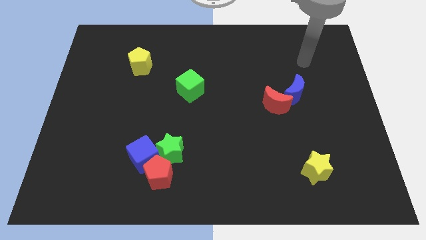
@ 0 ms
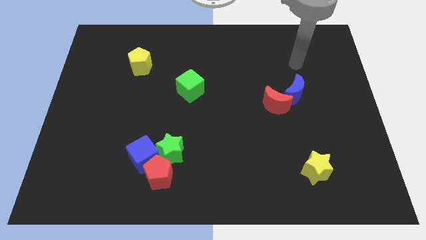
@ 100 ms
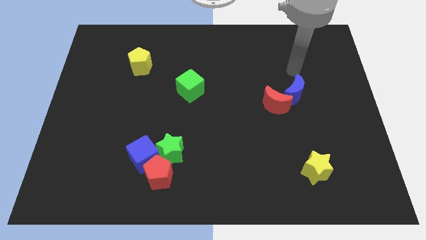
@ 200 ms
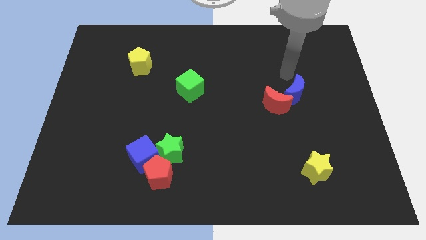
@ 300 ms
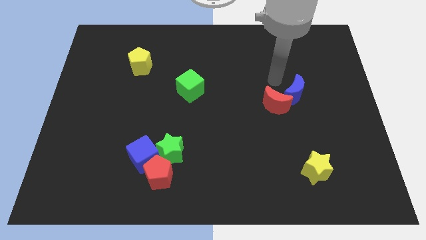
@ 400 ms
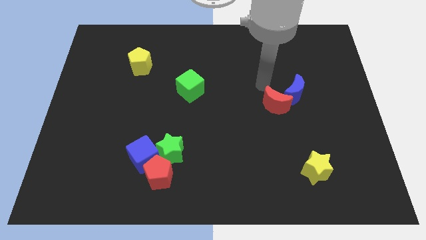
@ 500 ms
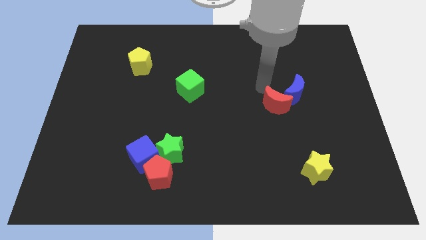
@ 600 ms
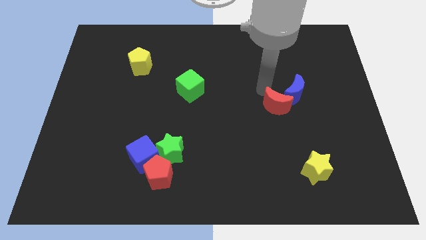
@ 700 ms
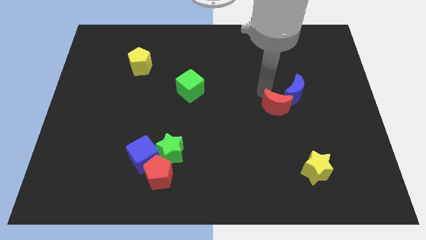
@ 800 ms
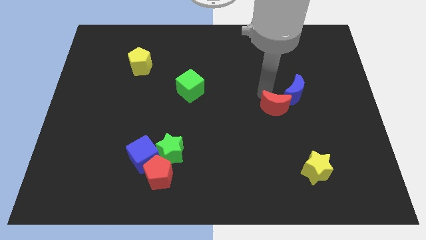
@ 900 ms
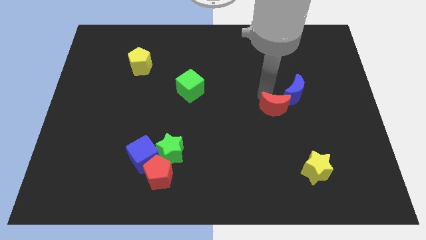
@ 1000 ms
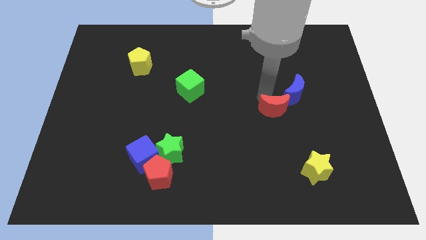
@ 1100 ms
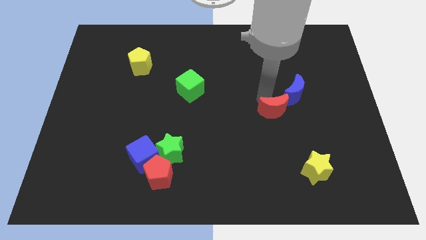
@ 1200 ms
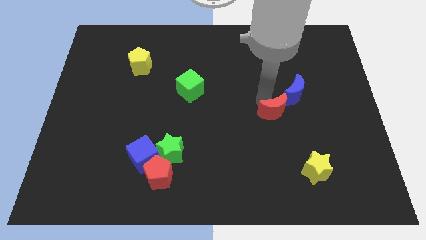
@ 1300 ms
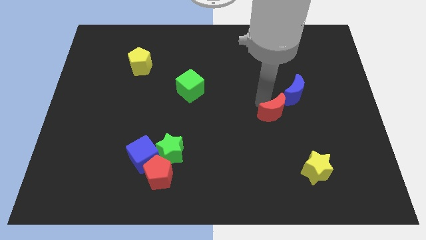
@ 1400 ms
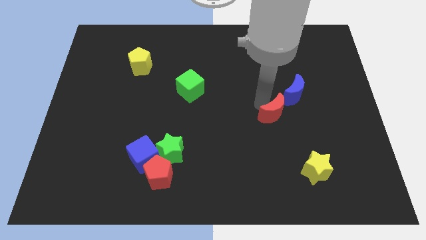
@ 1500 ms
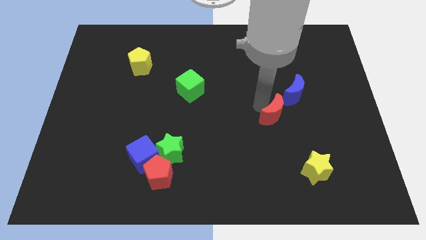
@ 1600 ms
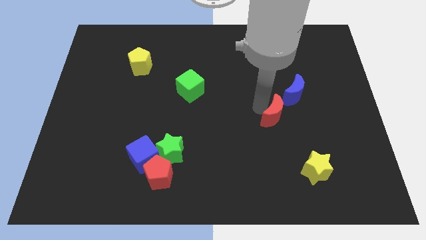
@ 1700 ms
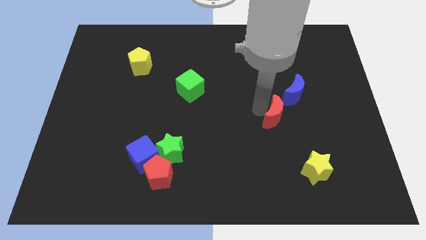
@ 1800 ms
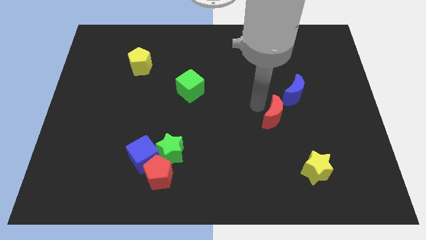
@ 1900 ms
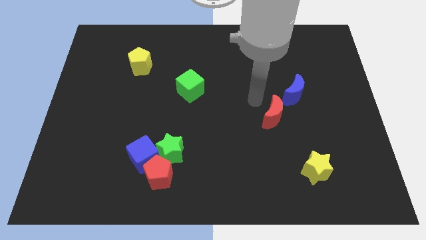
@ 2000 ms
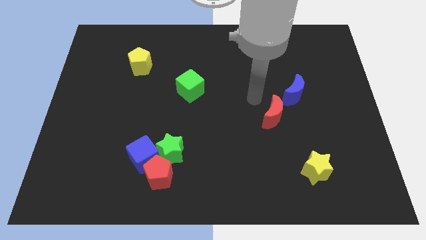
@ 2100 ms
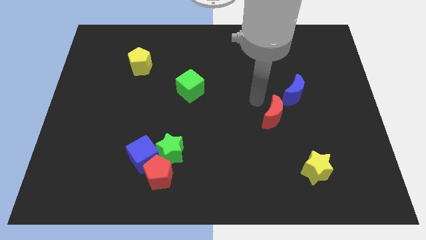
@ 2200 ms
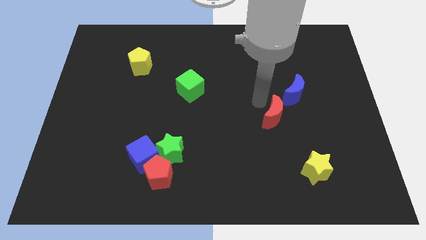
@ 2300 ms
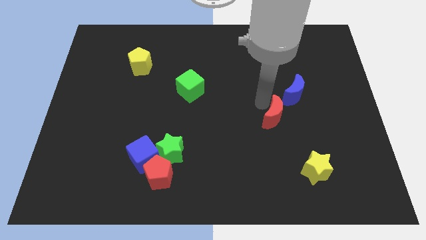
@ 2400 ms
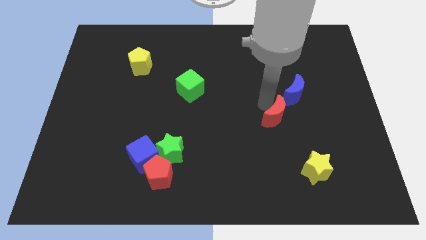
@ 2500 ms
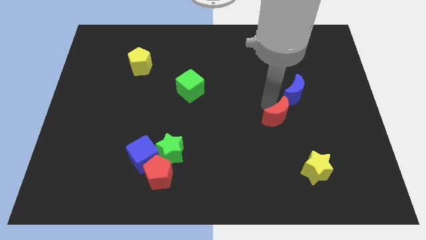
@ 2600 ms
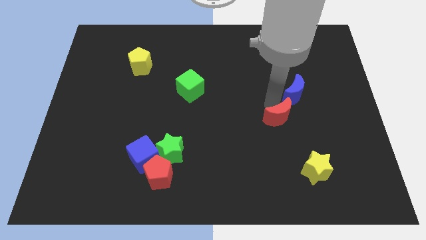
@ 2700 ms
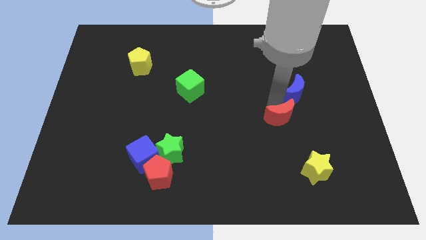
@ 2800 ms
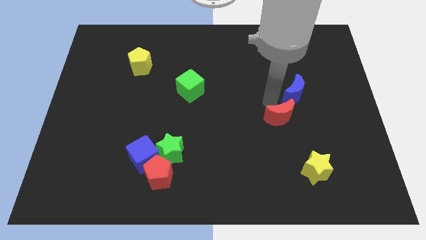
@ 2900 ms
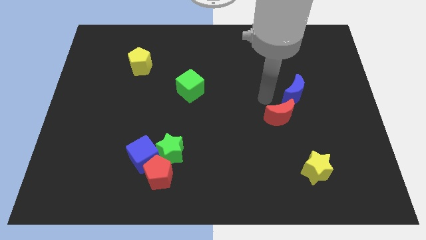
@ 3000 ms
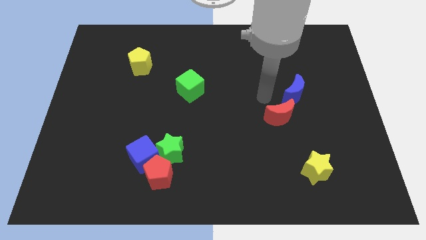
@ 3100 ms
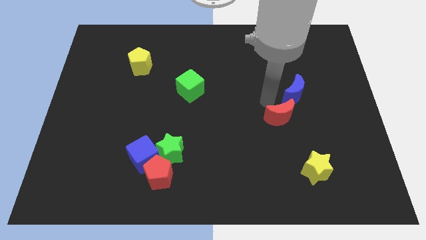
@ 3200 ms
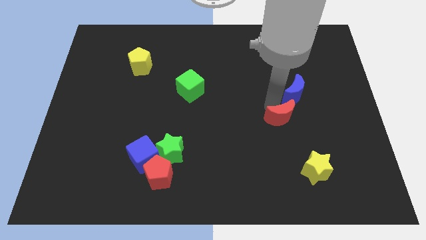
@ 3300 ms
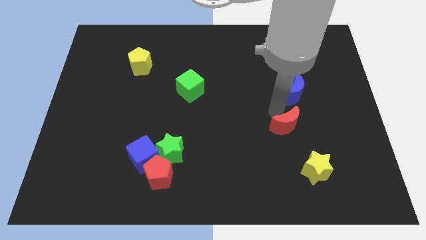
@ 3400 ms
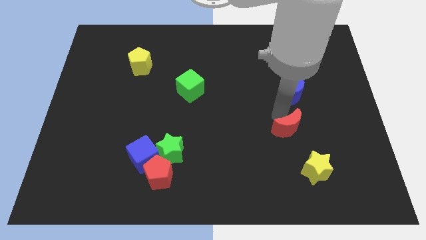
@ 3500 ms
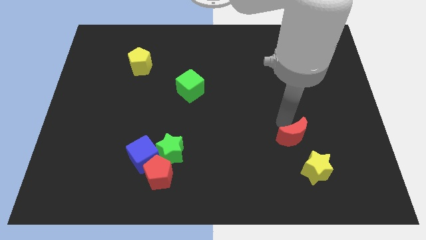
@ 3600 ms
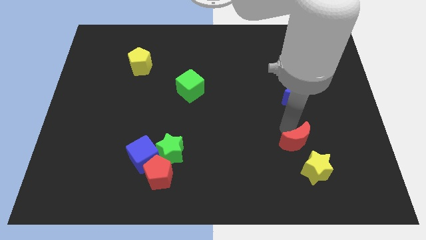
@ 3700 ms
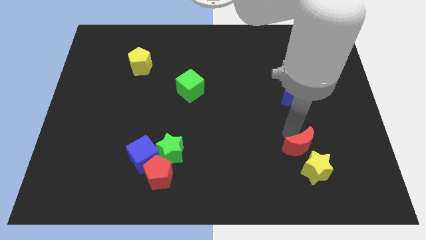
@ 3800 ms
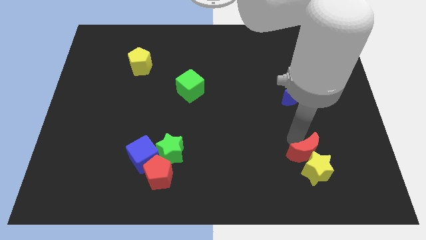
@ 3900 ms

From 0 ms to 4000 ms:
push the red moon to the yellow star

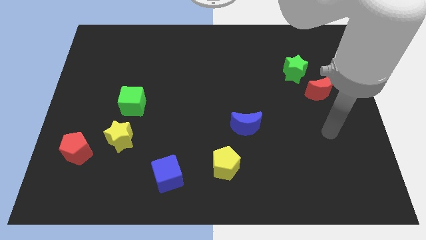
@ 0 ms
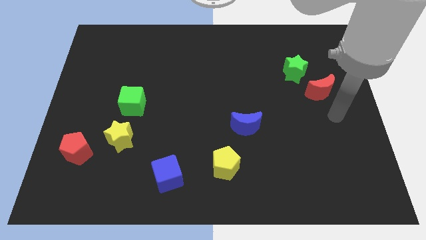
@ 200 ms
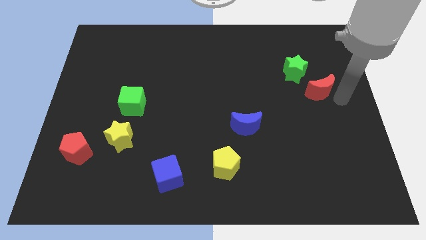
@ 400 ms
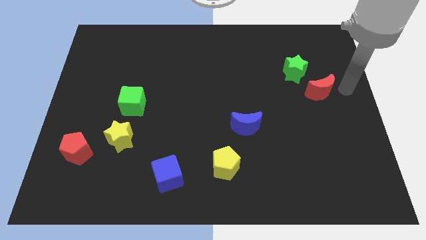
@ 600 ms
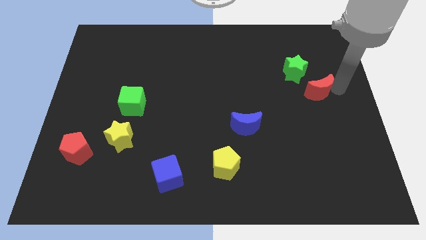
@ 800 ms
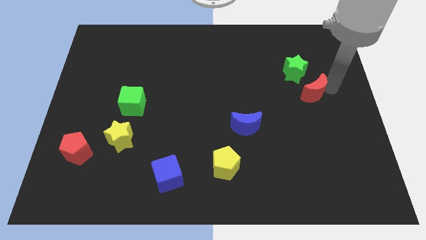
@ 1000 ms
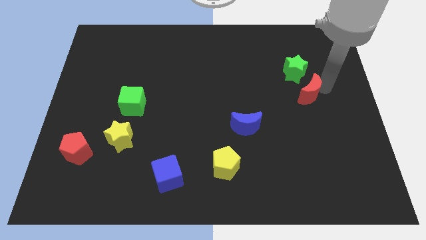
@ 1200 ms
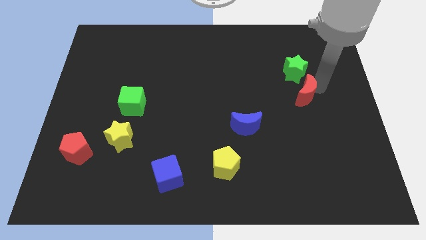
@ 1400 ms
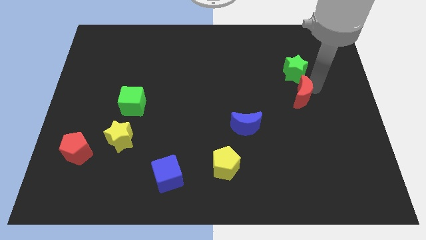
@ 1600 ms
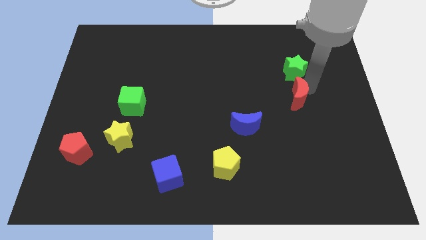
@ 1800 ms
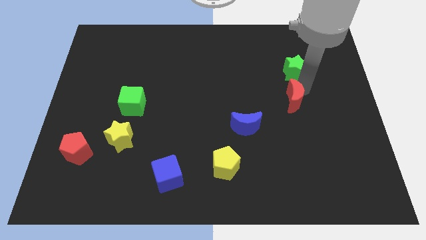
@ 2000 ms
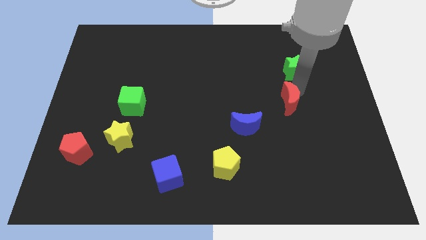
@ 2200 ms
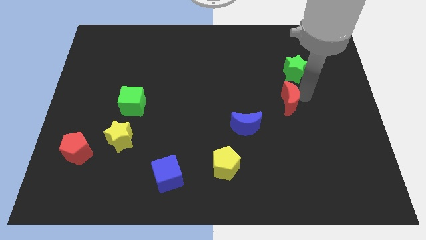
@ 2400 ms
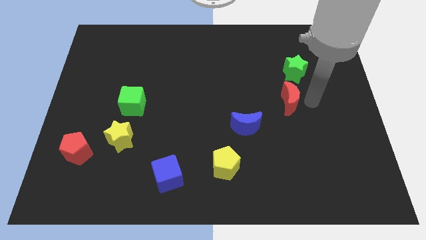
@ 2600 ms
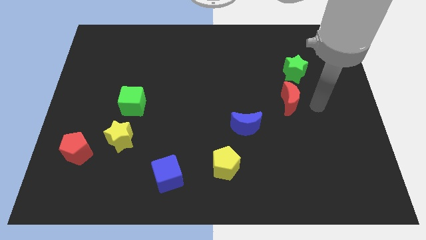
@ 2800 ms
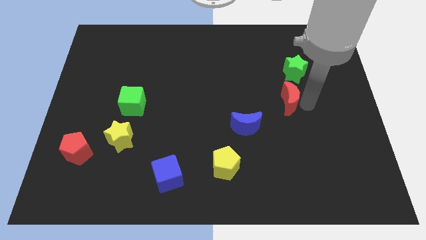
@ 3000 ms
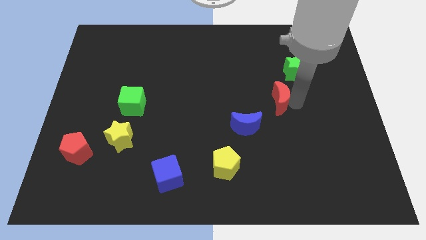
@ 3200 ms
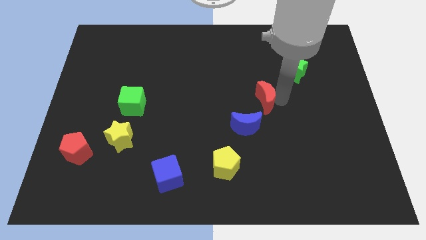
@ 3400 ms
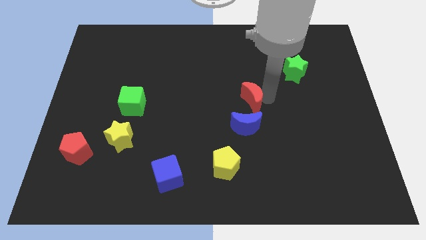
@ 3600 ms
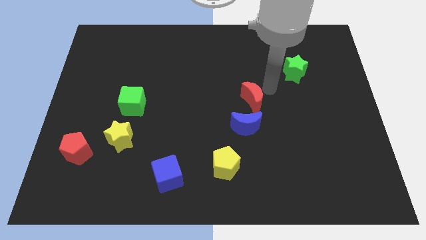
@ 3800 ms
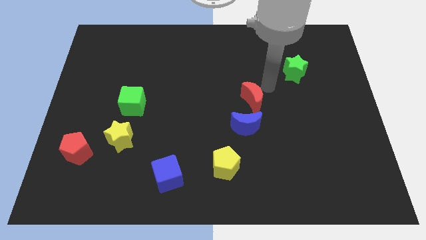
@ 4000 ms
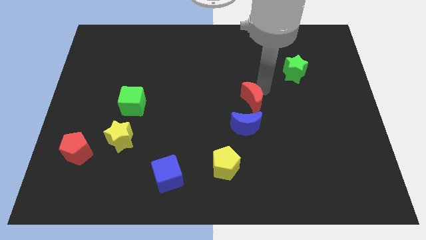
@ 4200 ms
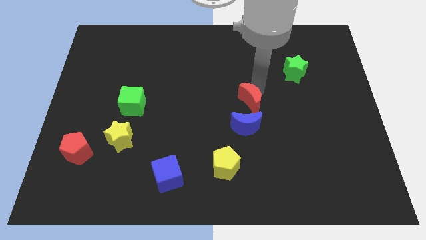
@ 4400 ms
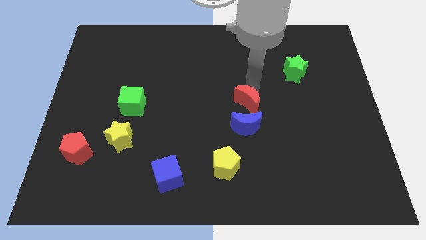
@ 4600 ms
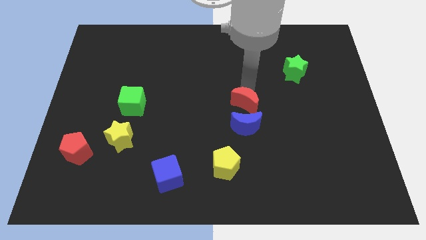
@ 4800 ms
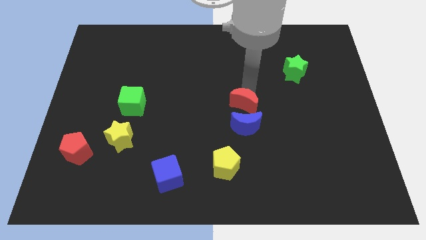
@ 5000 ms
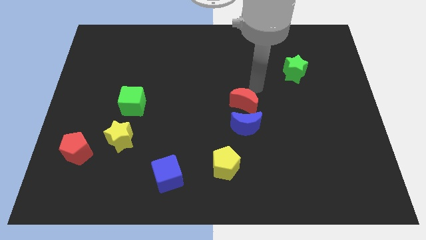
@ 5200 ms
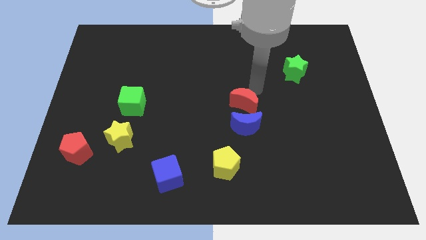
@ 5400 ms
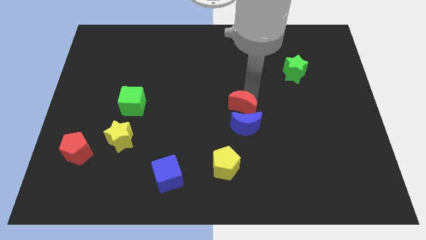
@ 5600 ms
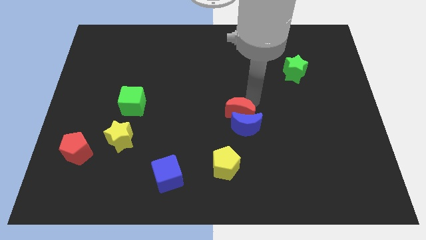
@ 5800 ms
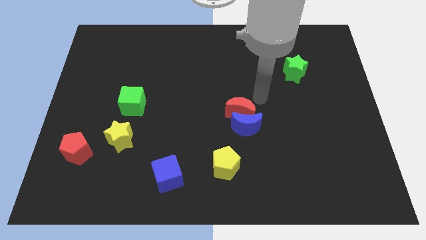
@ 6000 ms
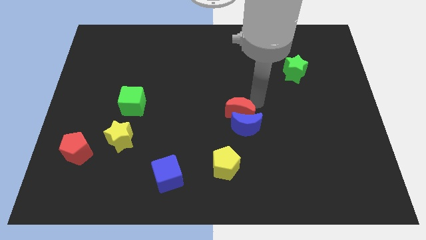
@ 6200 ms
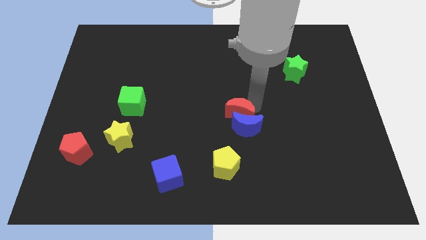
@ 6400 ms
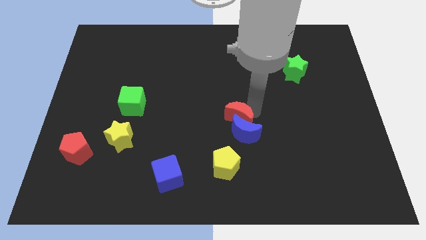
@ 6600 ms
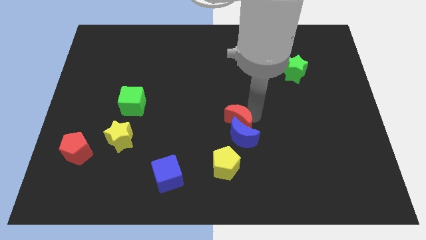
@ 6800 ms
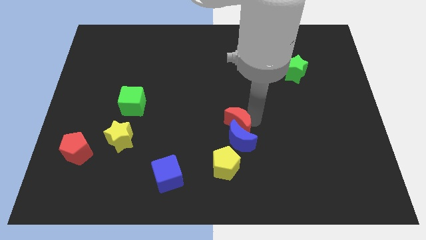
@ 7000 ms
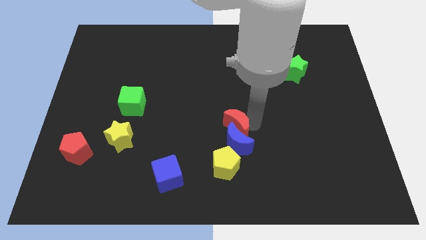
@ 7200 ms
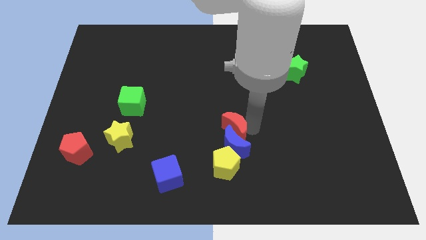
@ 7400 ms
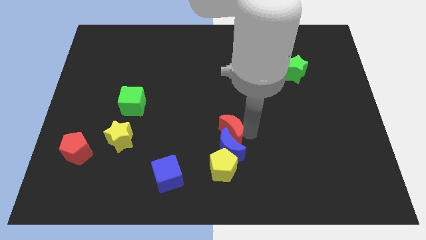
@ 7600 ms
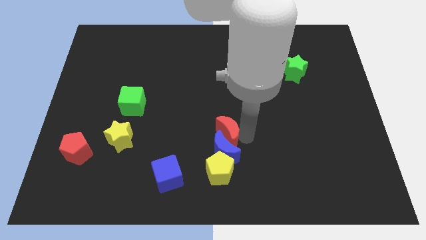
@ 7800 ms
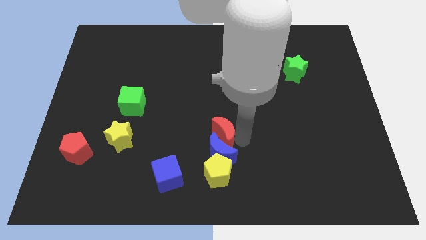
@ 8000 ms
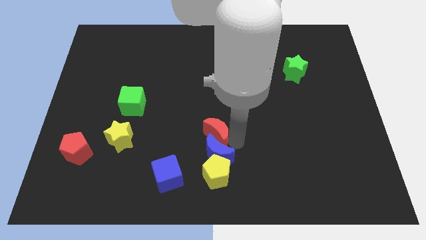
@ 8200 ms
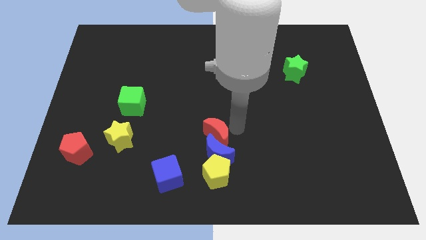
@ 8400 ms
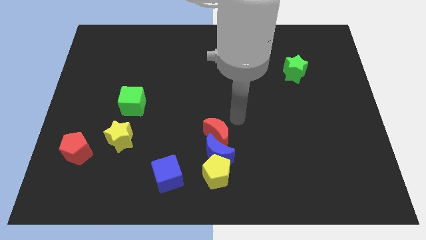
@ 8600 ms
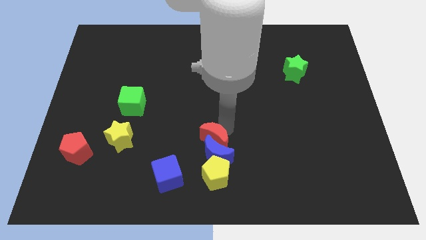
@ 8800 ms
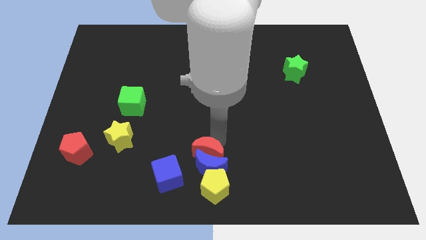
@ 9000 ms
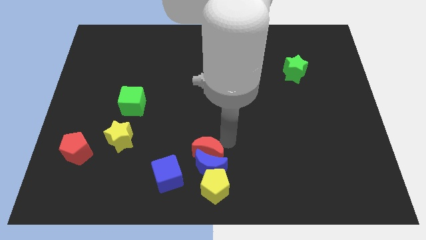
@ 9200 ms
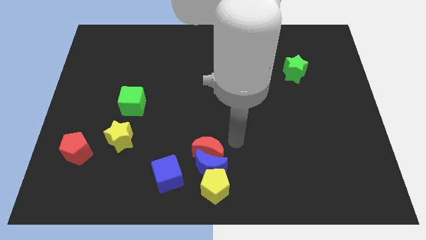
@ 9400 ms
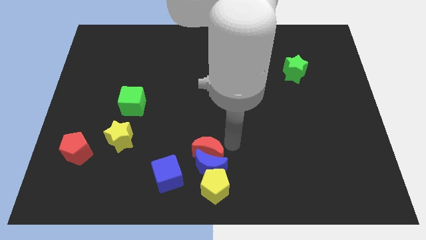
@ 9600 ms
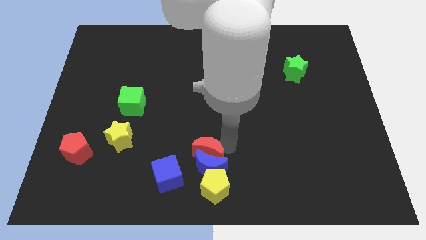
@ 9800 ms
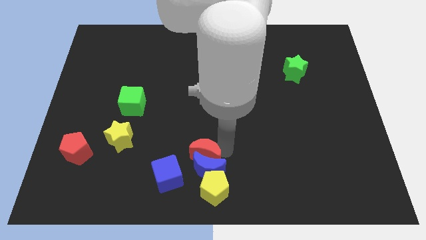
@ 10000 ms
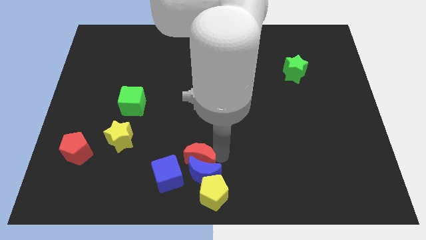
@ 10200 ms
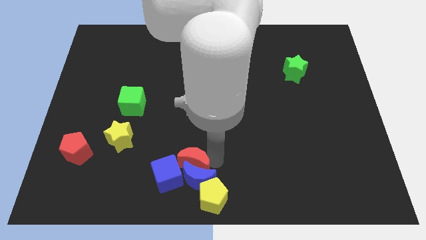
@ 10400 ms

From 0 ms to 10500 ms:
slide the red moon towards the blue cube
